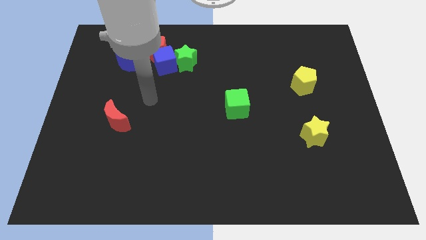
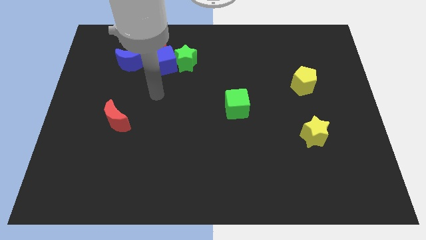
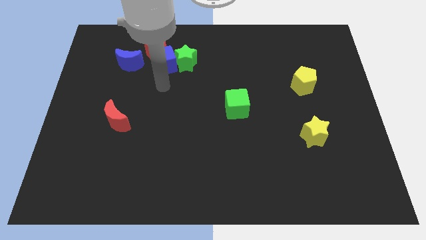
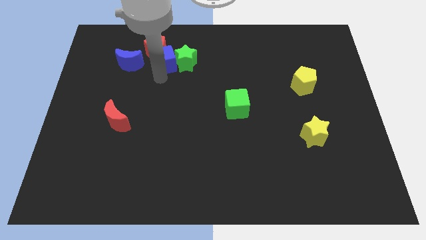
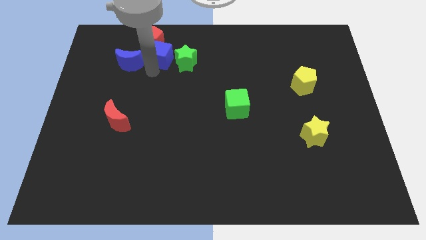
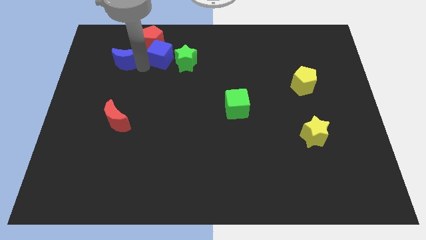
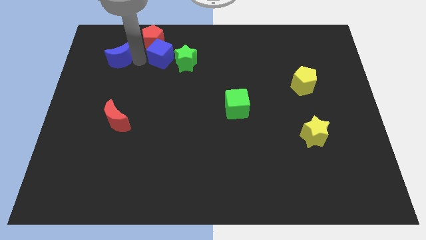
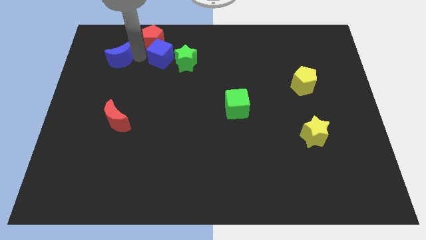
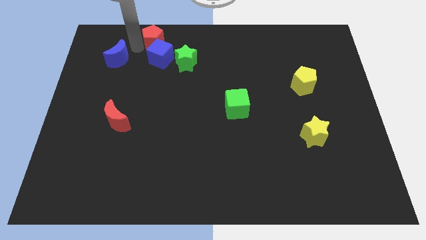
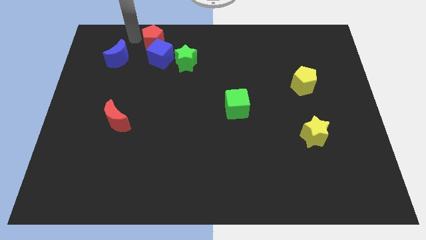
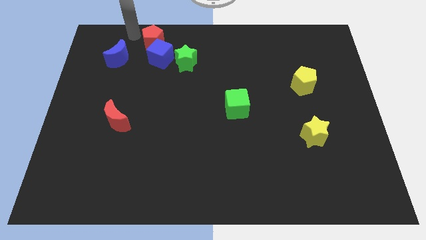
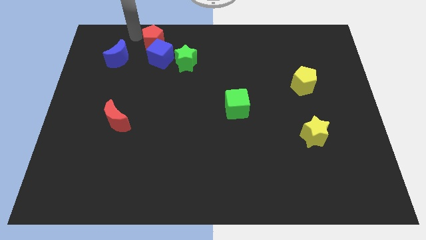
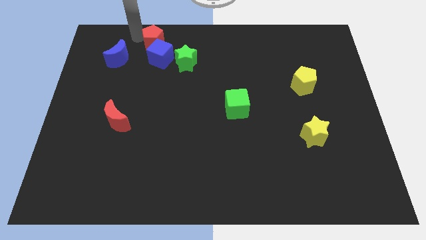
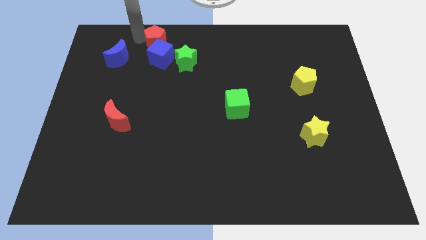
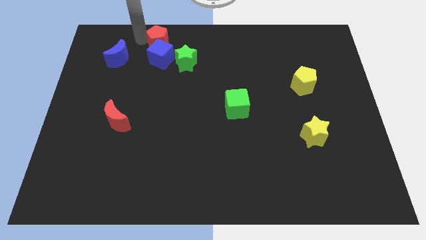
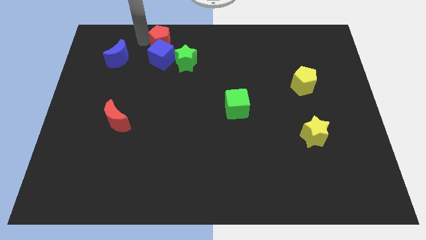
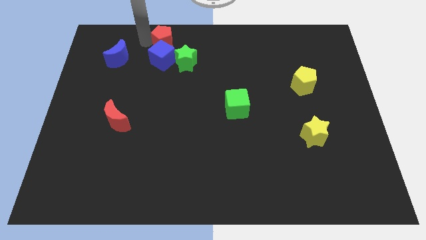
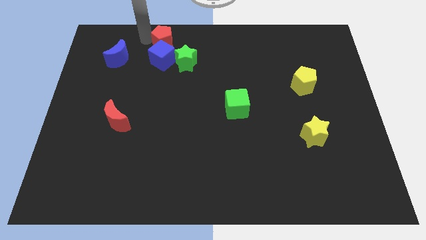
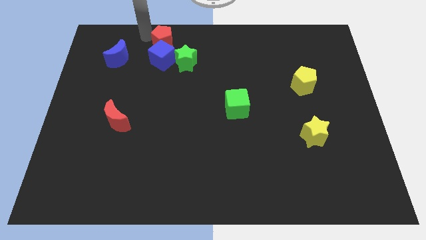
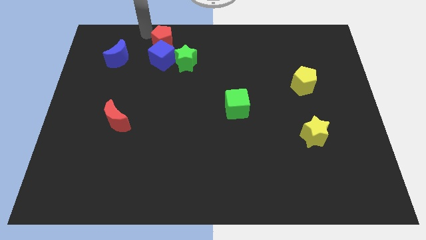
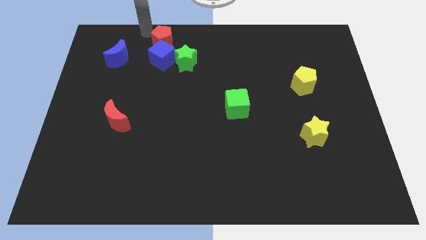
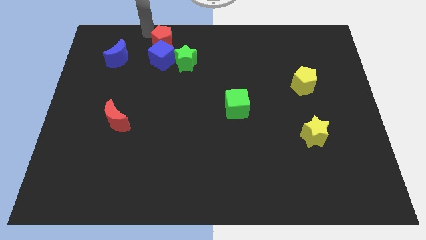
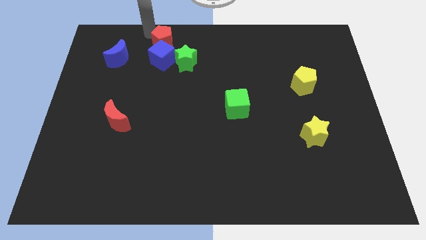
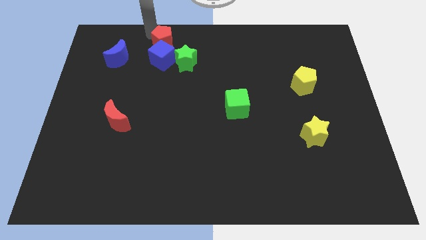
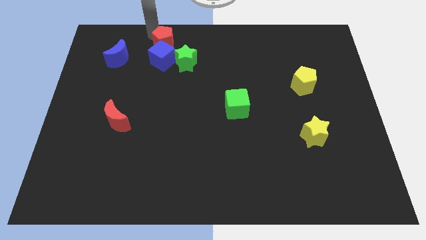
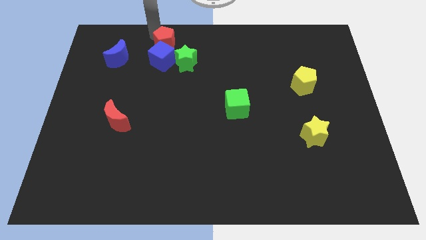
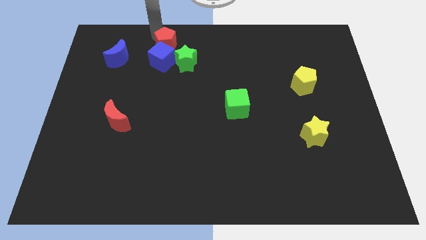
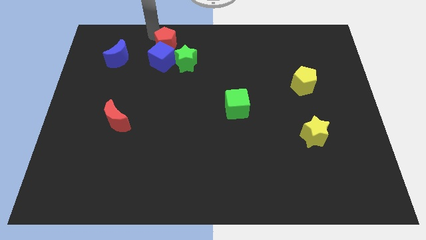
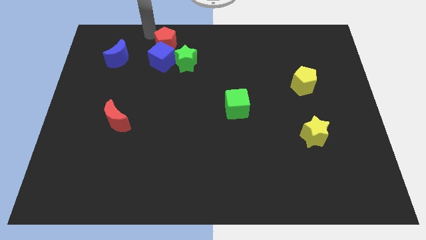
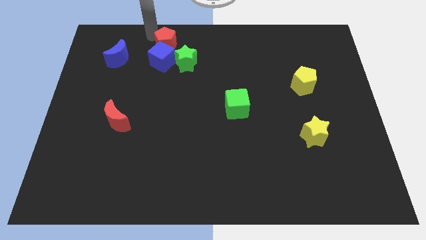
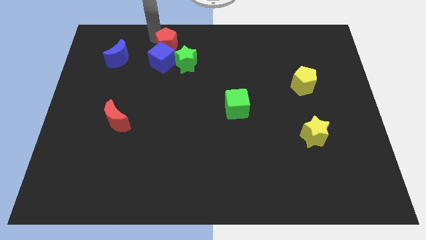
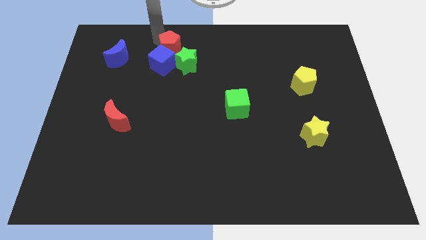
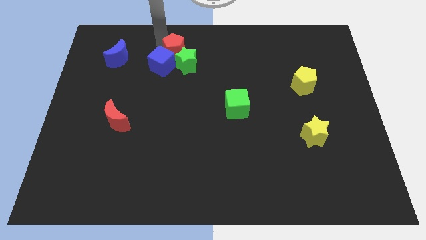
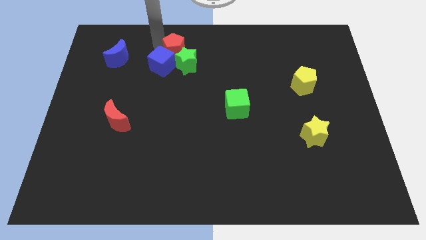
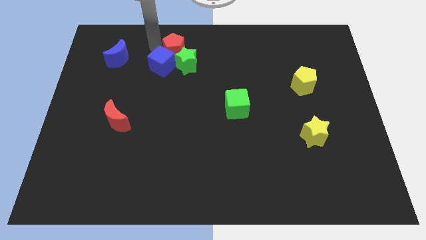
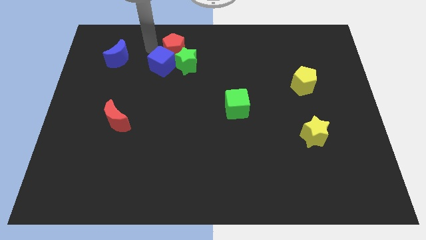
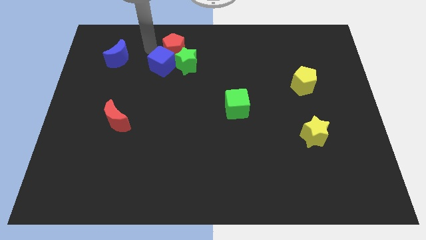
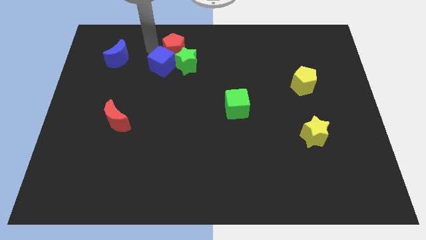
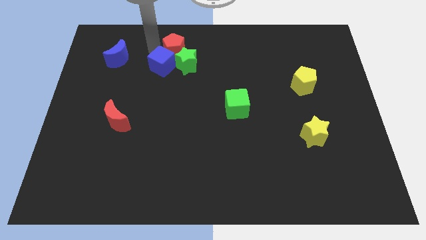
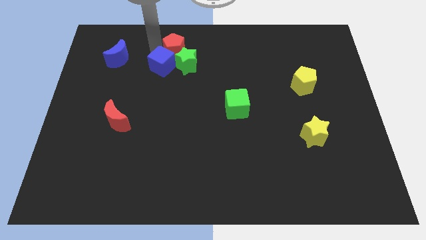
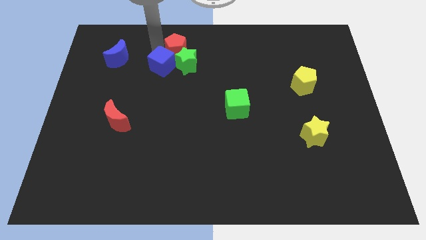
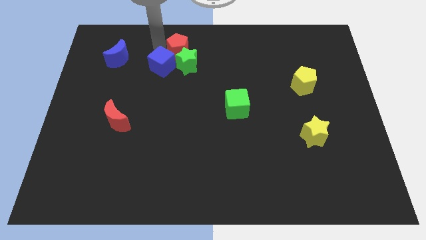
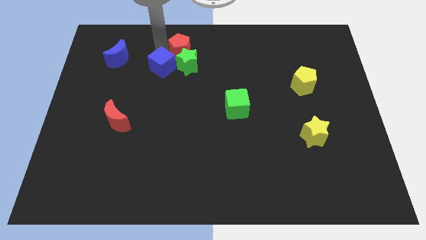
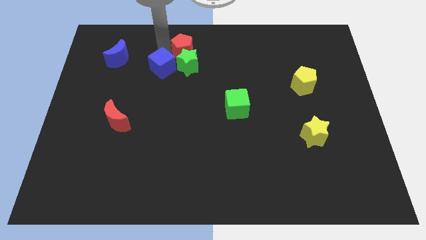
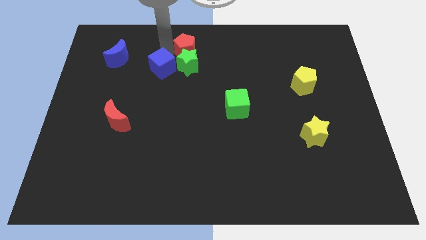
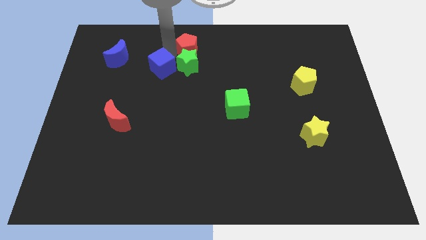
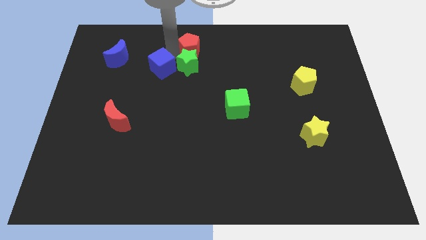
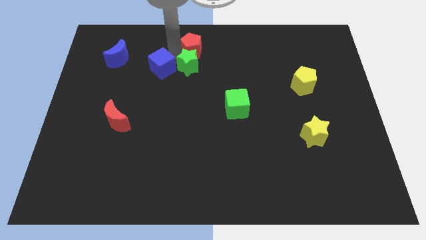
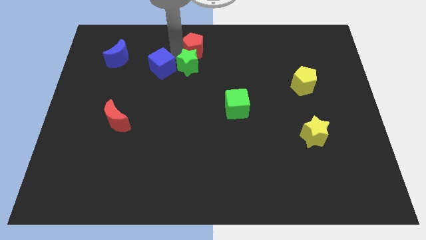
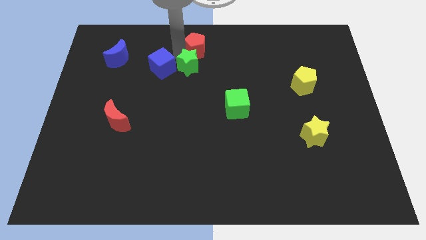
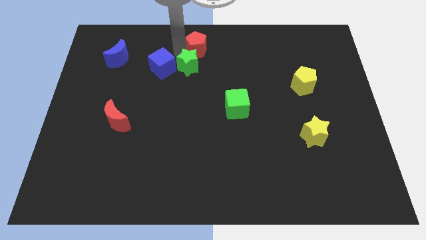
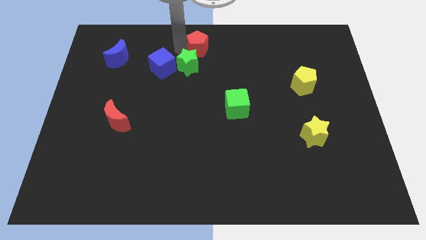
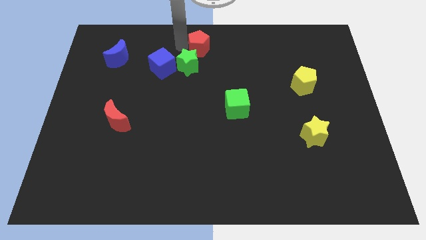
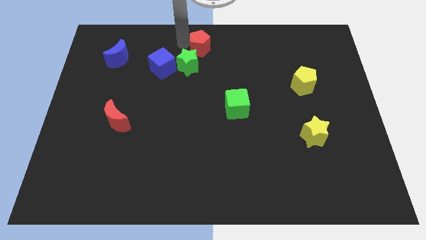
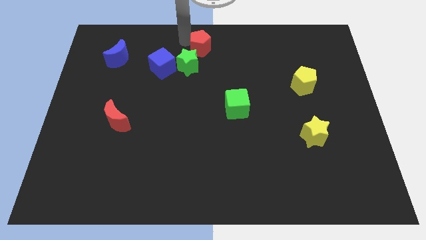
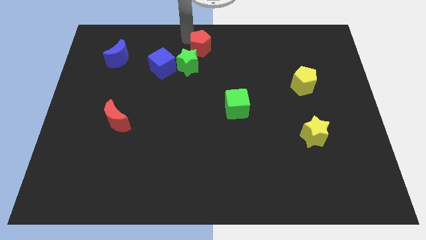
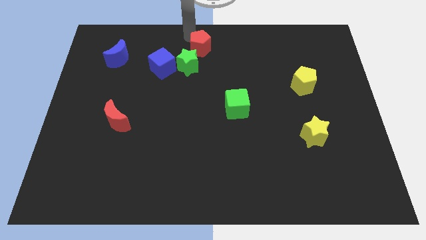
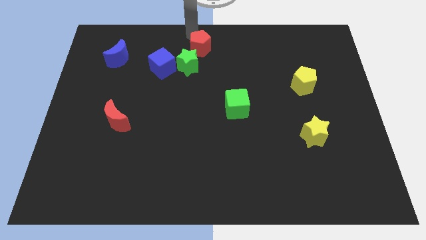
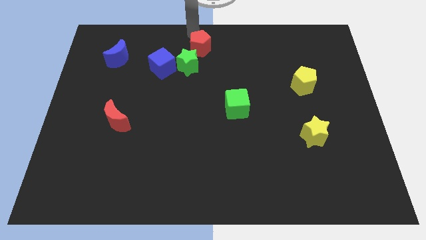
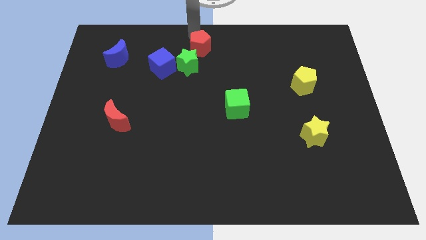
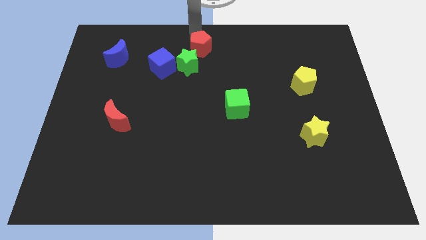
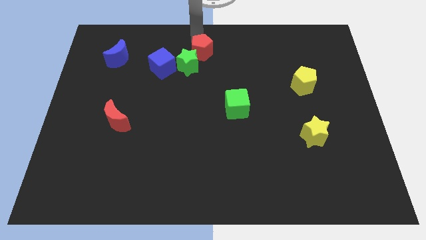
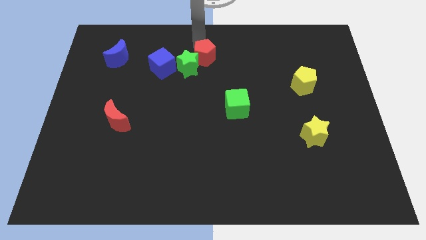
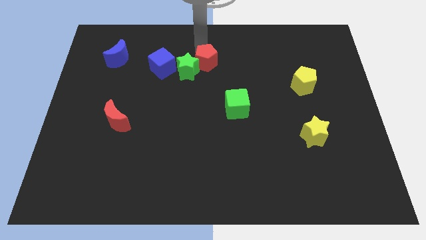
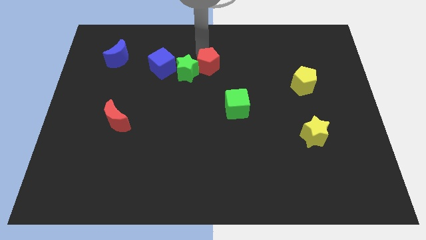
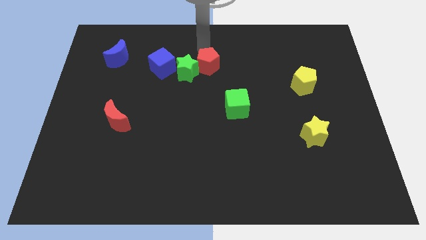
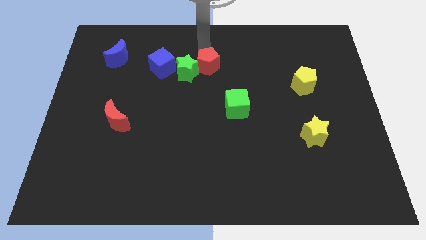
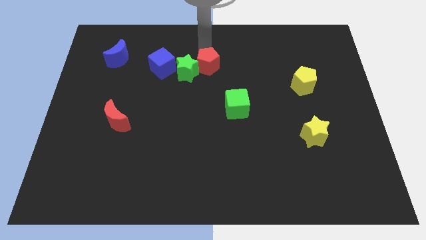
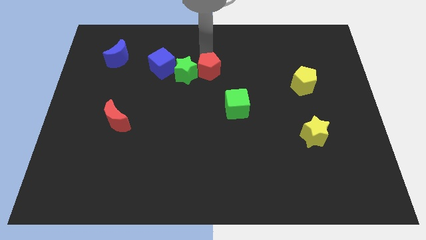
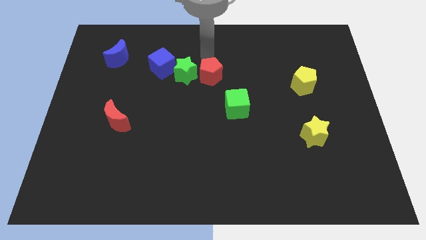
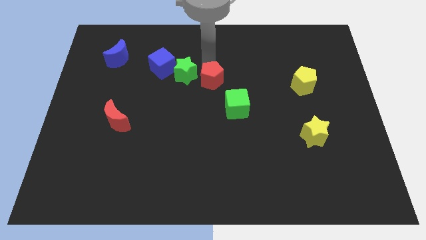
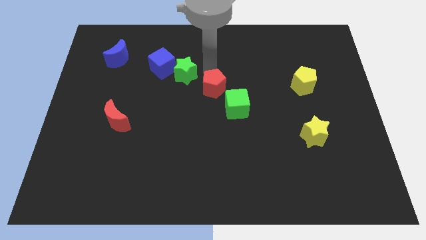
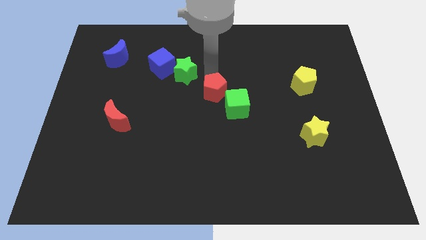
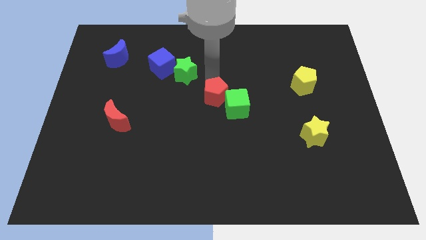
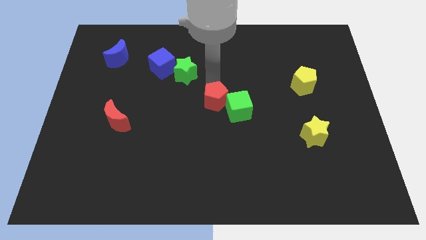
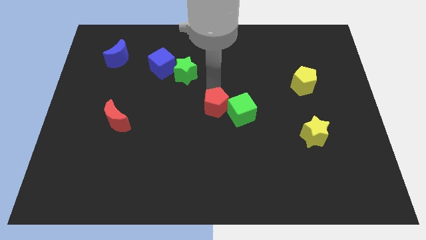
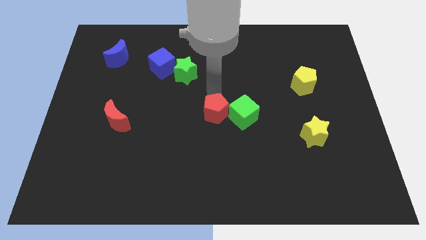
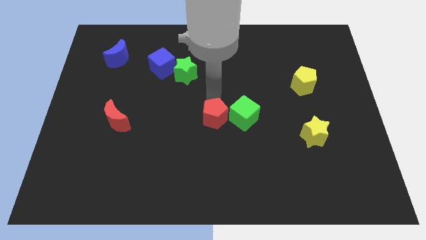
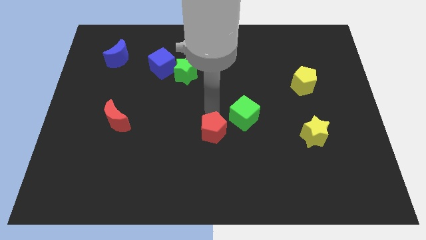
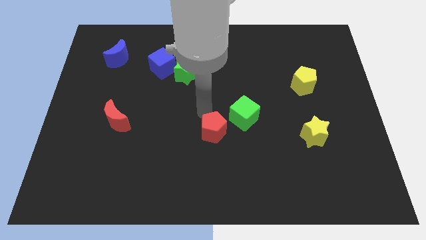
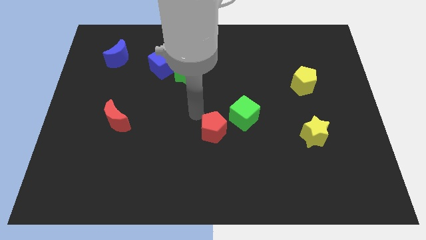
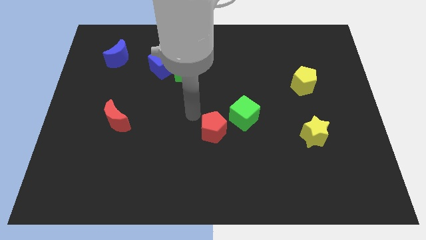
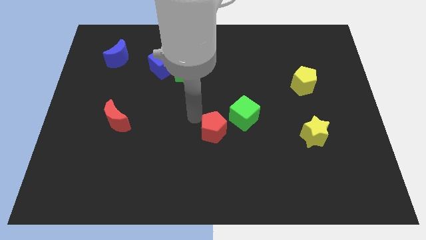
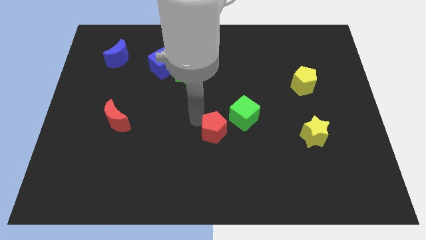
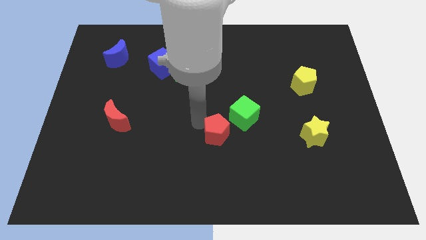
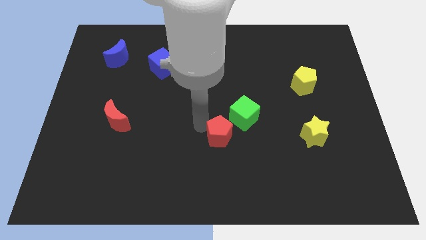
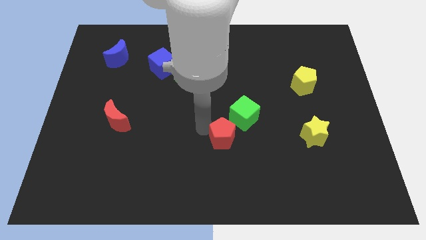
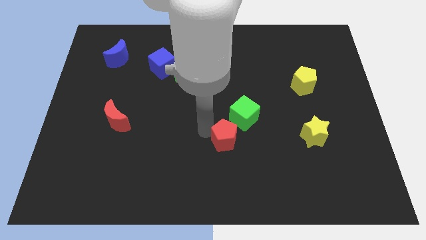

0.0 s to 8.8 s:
slide the red pentagon below the green cube
